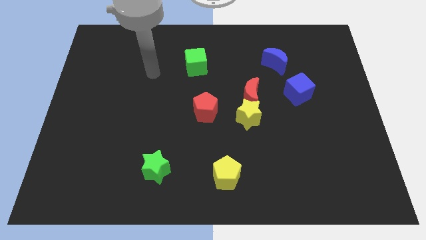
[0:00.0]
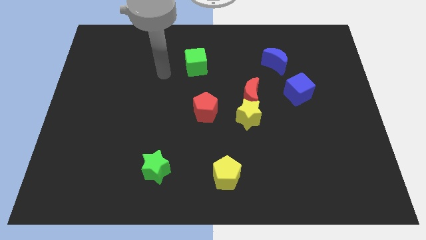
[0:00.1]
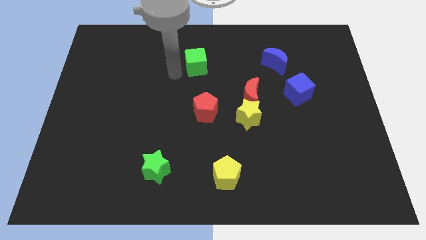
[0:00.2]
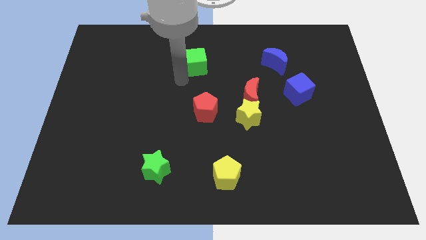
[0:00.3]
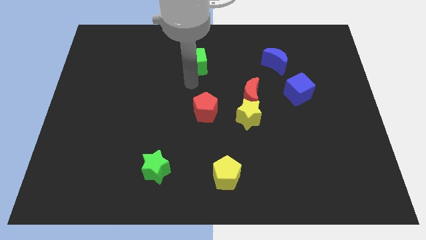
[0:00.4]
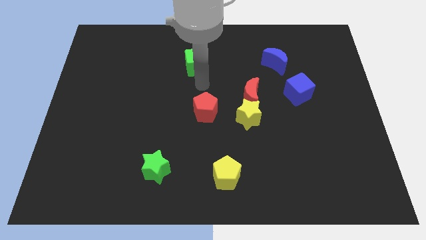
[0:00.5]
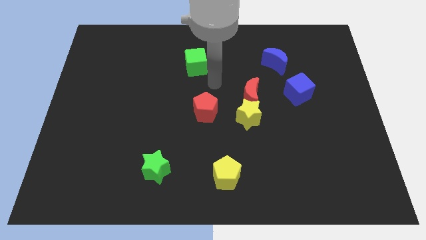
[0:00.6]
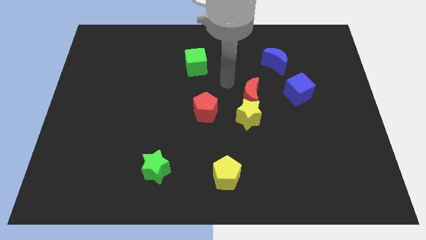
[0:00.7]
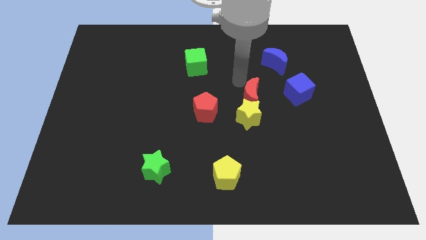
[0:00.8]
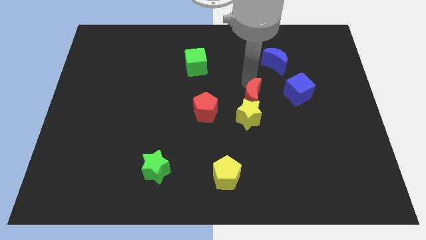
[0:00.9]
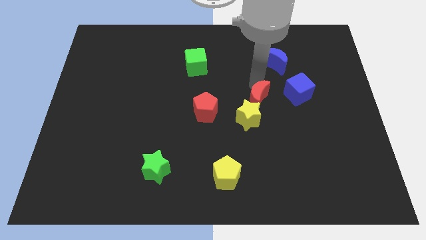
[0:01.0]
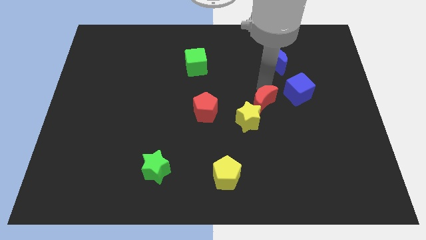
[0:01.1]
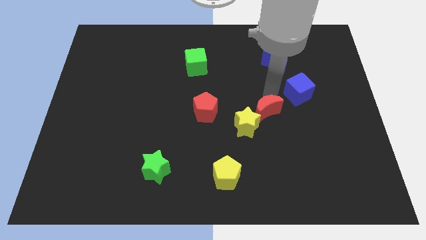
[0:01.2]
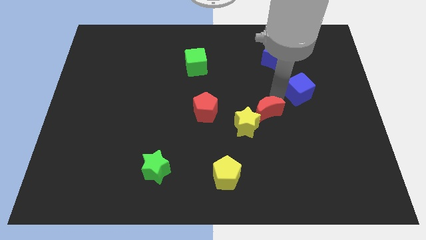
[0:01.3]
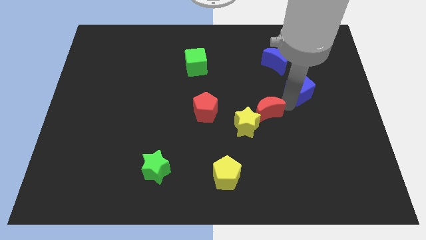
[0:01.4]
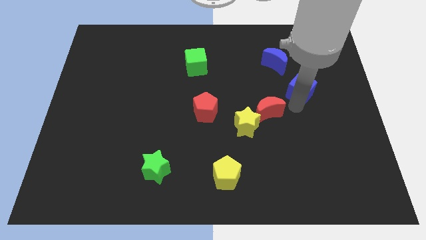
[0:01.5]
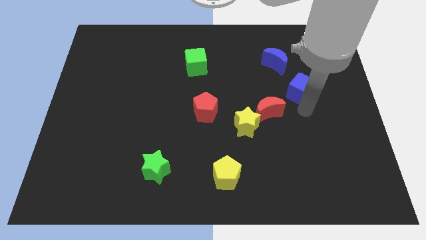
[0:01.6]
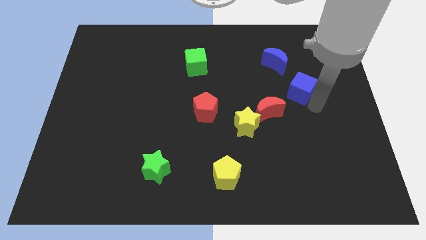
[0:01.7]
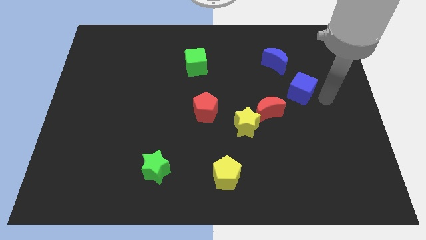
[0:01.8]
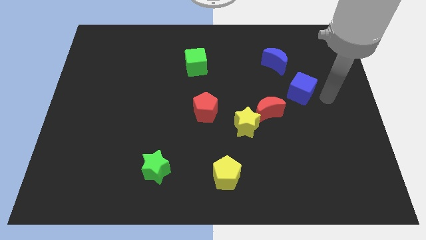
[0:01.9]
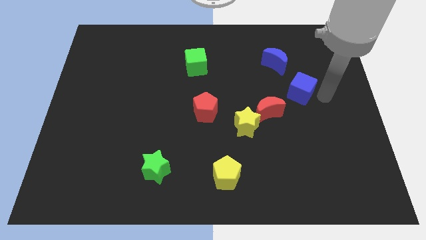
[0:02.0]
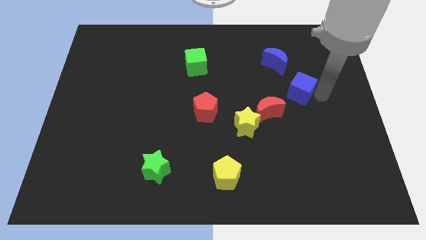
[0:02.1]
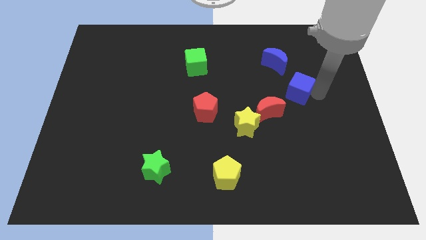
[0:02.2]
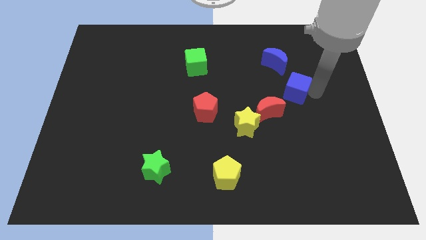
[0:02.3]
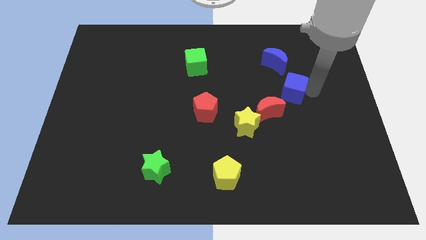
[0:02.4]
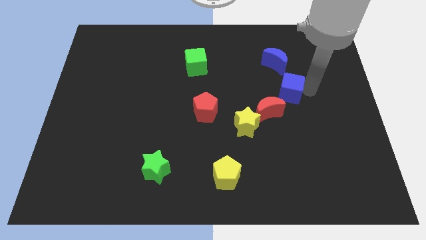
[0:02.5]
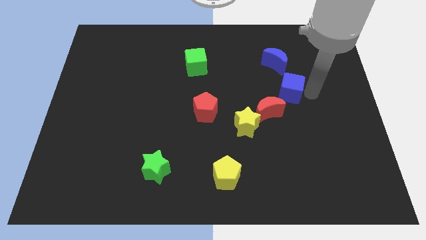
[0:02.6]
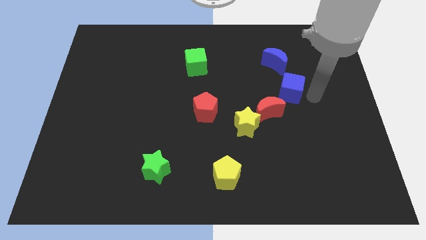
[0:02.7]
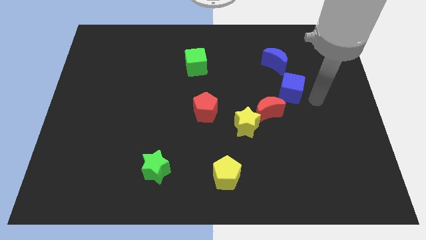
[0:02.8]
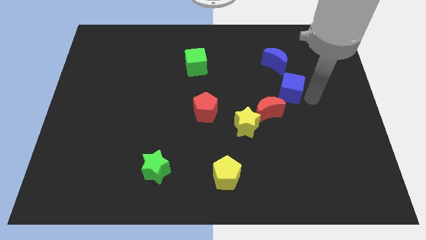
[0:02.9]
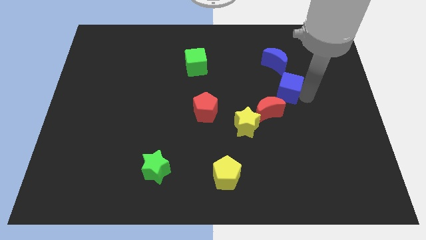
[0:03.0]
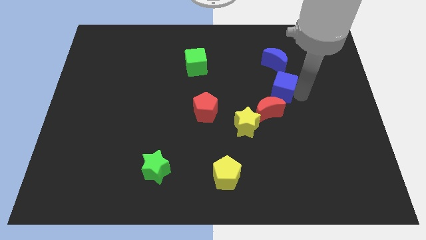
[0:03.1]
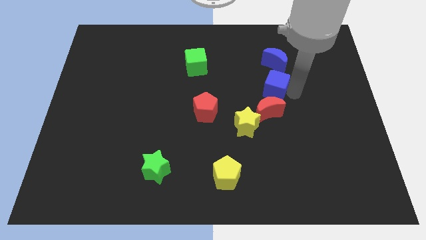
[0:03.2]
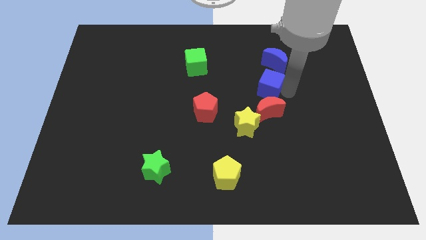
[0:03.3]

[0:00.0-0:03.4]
slightly slide the blue cube left

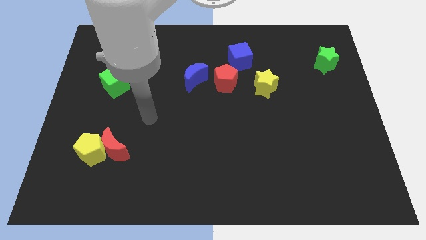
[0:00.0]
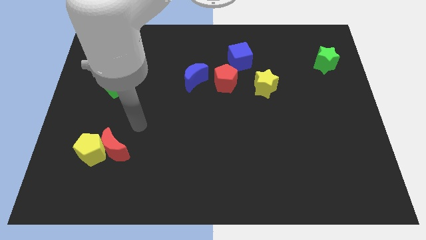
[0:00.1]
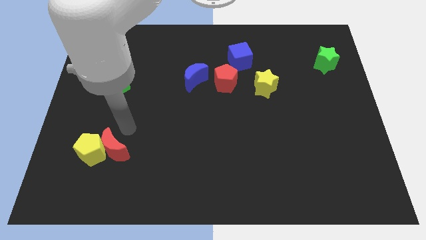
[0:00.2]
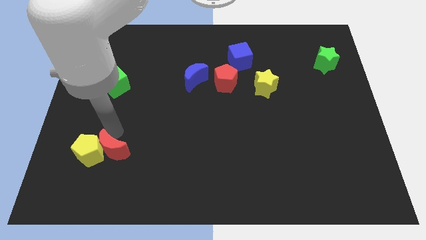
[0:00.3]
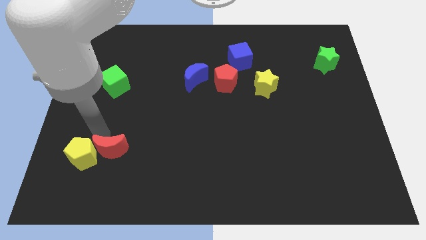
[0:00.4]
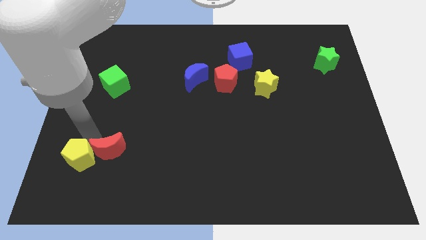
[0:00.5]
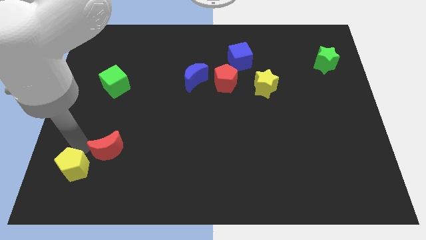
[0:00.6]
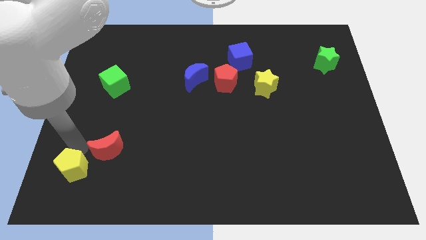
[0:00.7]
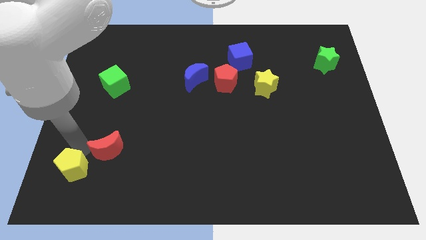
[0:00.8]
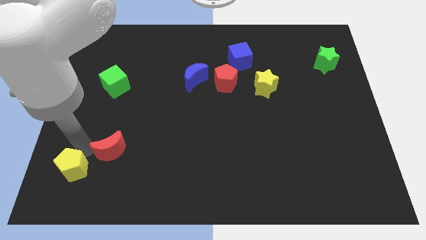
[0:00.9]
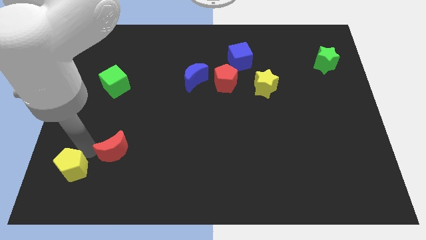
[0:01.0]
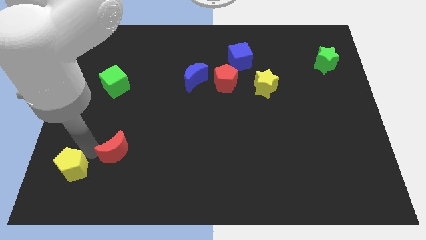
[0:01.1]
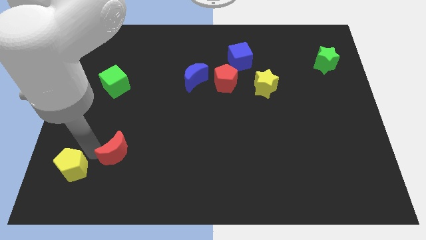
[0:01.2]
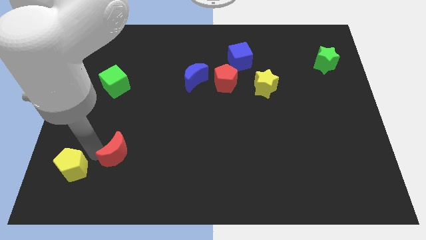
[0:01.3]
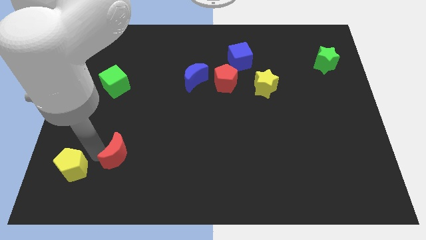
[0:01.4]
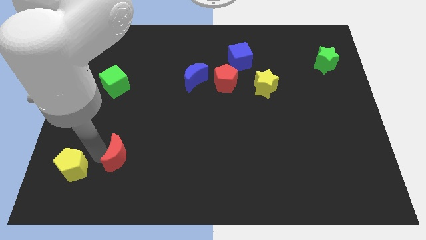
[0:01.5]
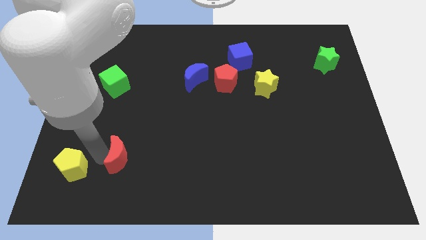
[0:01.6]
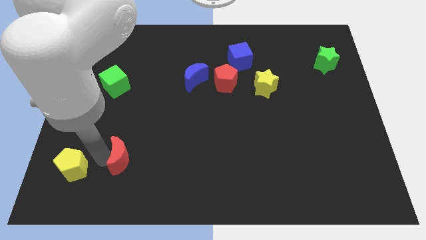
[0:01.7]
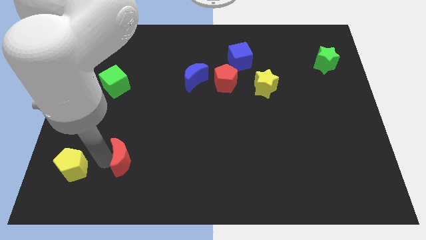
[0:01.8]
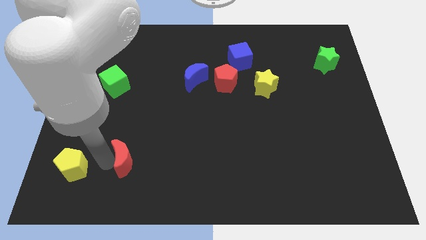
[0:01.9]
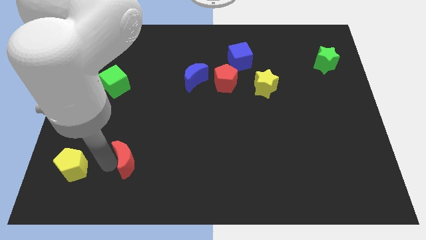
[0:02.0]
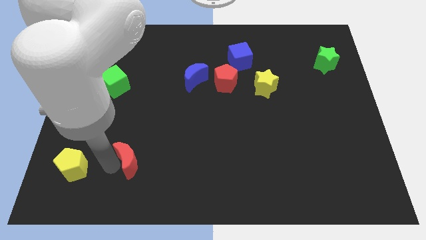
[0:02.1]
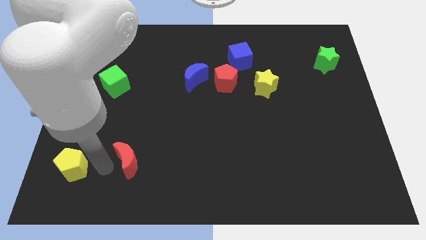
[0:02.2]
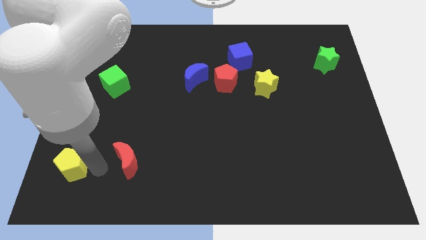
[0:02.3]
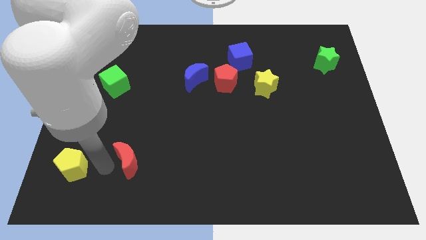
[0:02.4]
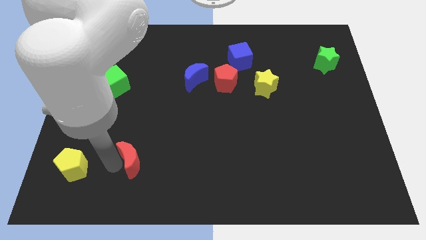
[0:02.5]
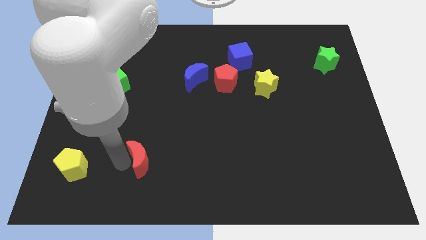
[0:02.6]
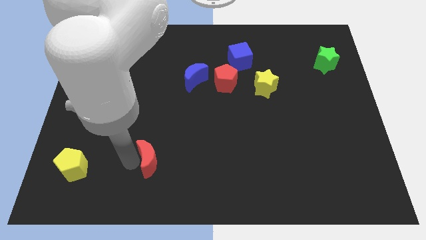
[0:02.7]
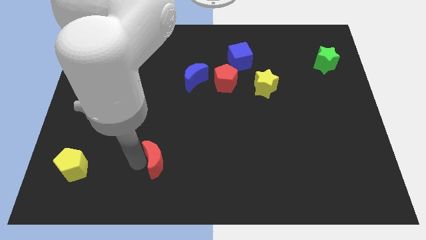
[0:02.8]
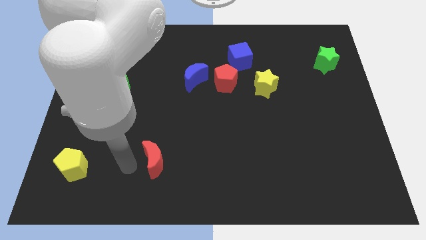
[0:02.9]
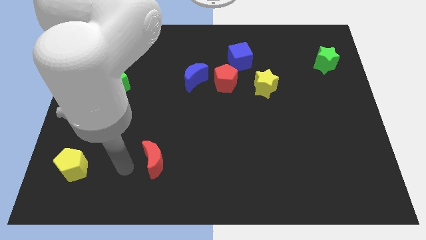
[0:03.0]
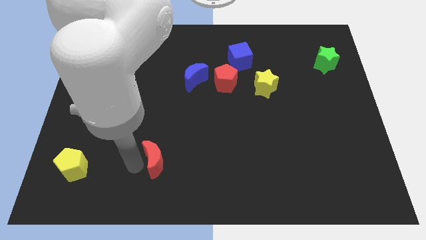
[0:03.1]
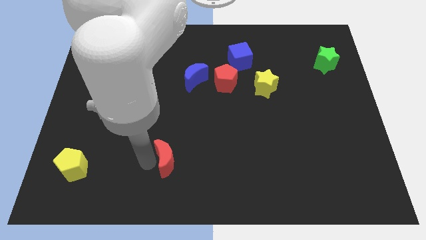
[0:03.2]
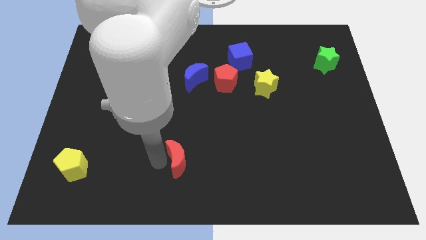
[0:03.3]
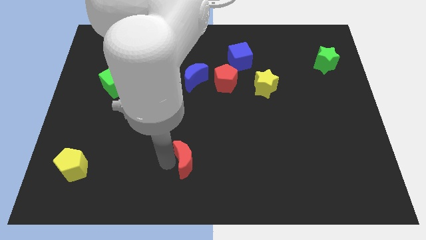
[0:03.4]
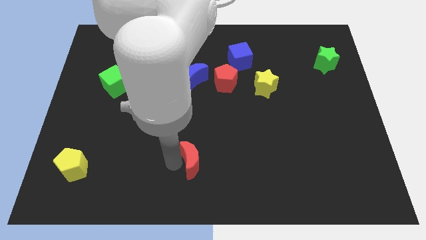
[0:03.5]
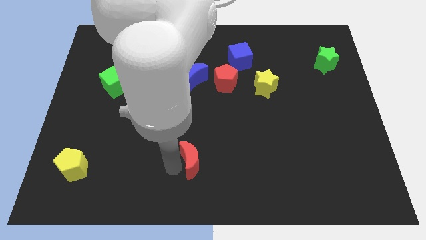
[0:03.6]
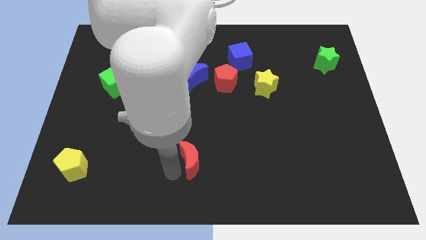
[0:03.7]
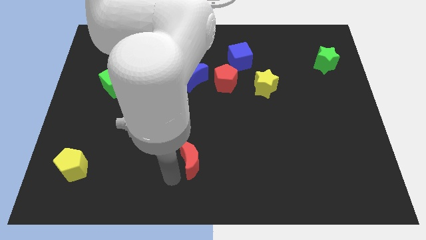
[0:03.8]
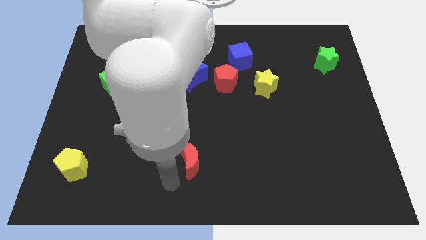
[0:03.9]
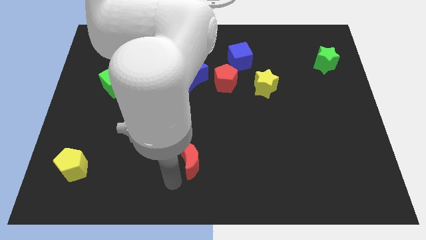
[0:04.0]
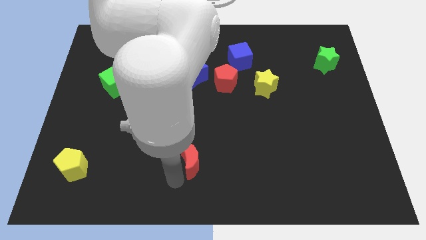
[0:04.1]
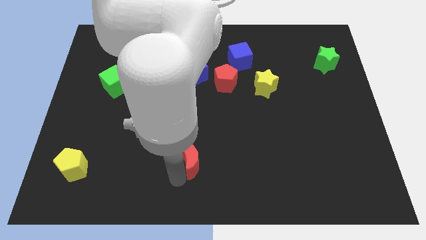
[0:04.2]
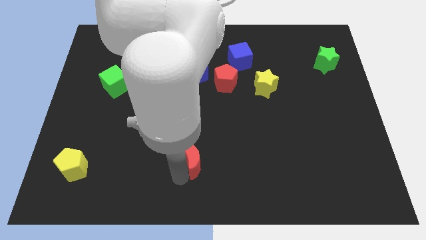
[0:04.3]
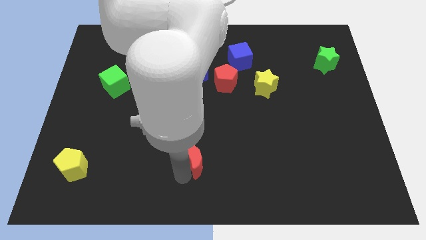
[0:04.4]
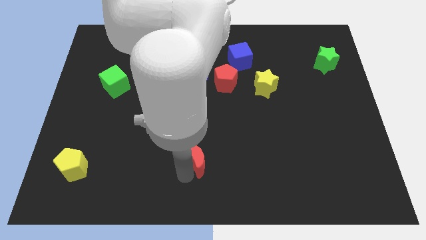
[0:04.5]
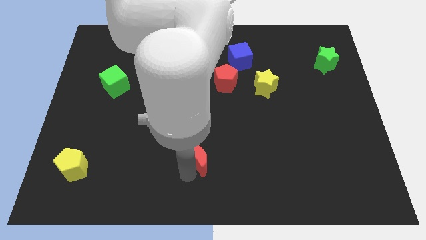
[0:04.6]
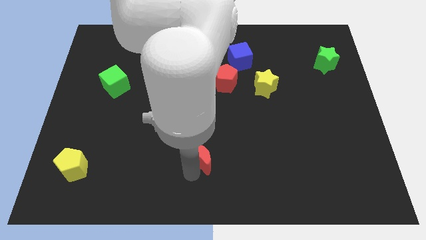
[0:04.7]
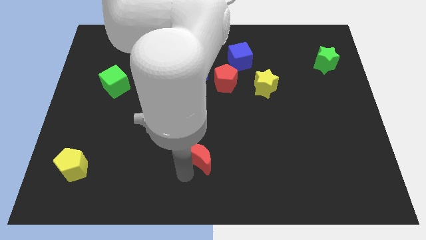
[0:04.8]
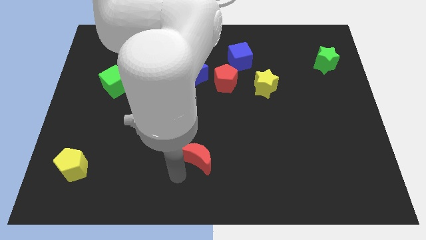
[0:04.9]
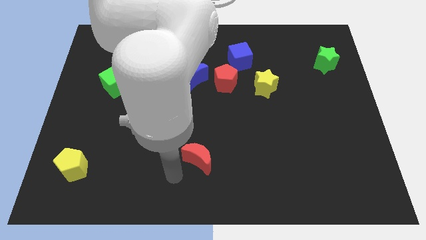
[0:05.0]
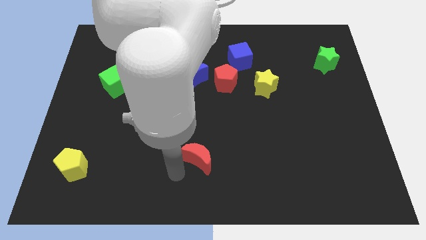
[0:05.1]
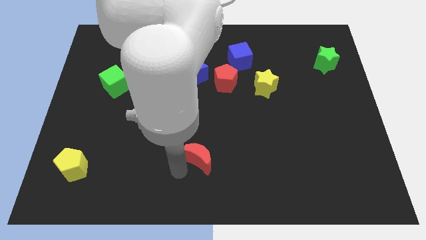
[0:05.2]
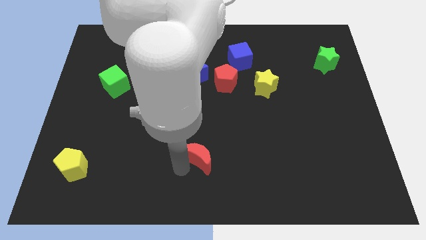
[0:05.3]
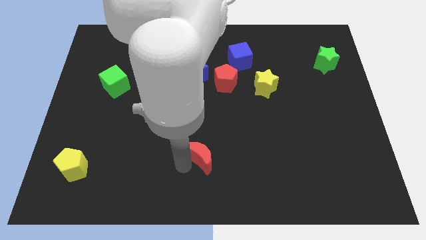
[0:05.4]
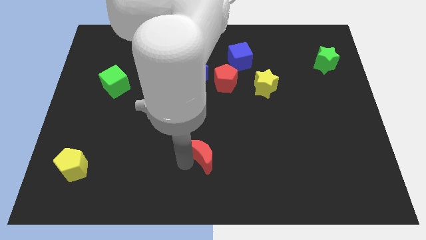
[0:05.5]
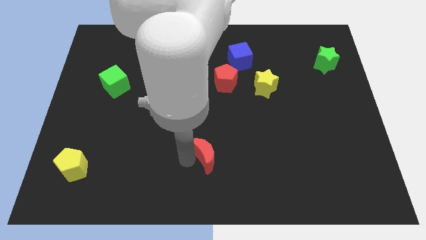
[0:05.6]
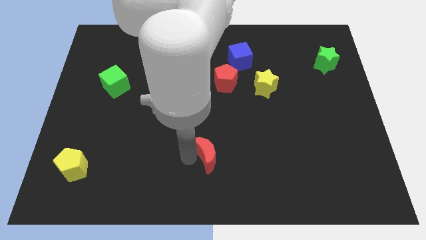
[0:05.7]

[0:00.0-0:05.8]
move the red moon right
